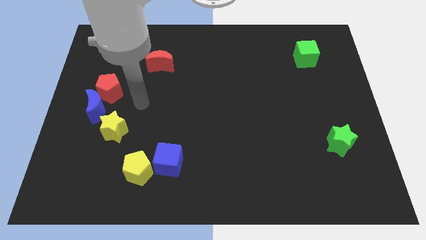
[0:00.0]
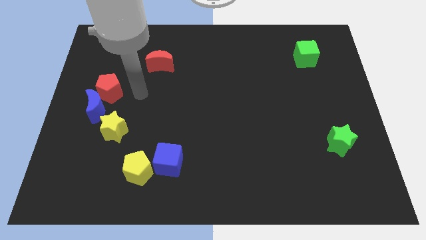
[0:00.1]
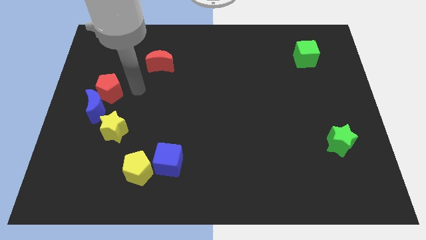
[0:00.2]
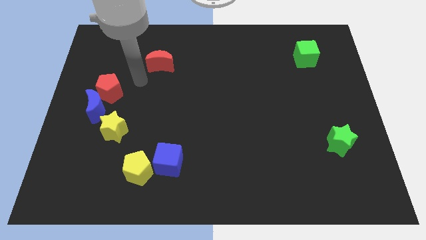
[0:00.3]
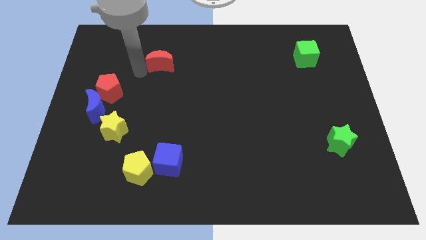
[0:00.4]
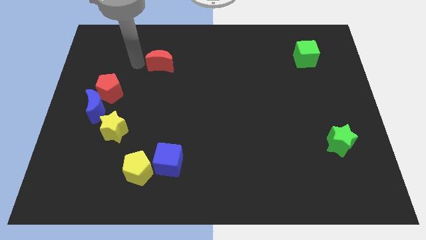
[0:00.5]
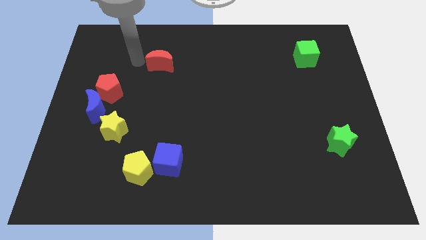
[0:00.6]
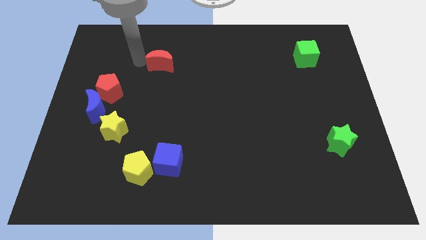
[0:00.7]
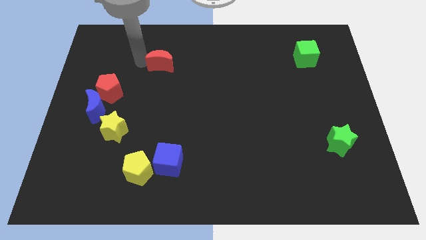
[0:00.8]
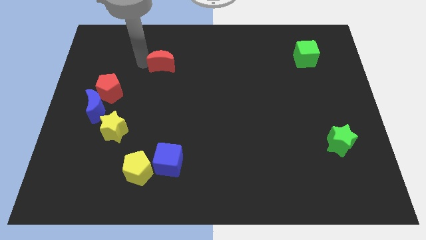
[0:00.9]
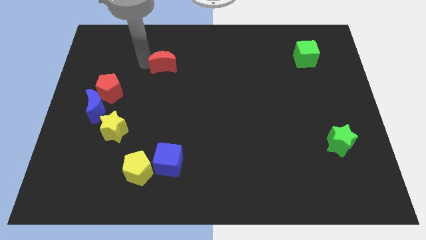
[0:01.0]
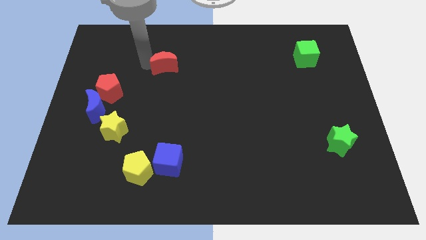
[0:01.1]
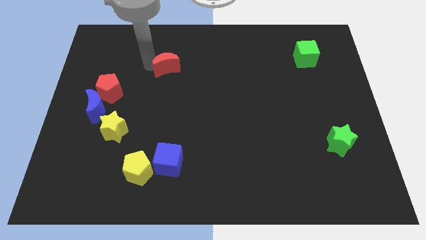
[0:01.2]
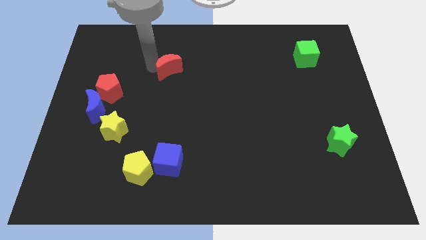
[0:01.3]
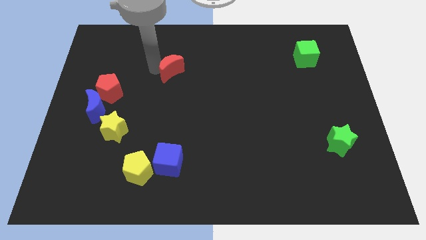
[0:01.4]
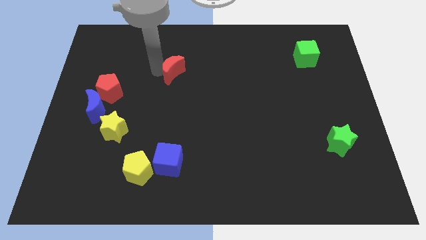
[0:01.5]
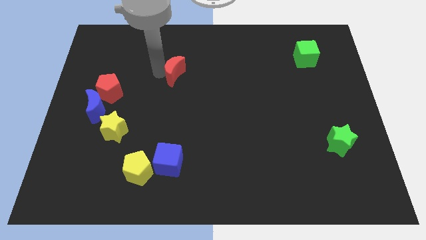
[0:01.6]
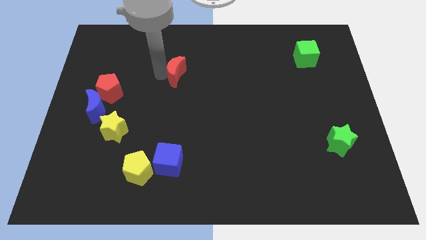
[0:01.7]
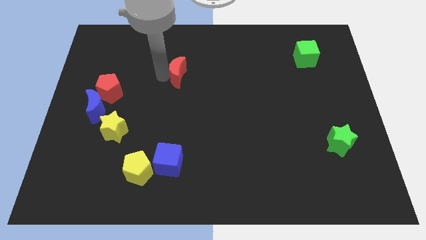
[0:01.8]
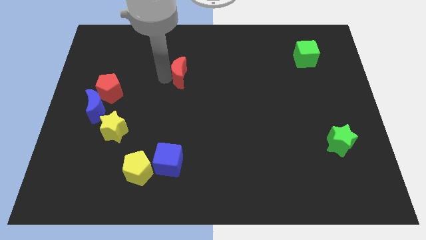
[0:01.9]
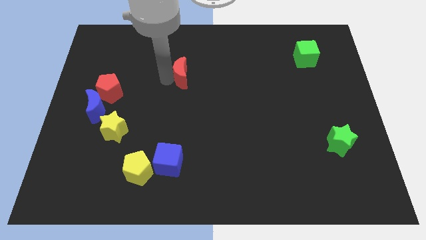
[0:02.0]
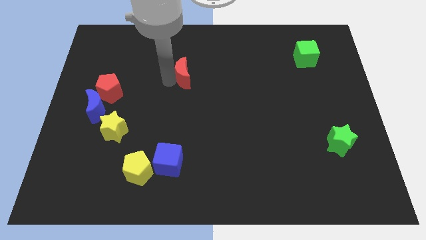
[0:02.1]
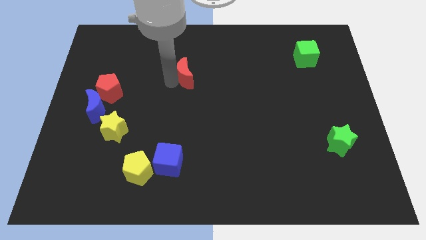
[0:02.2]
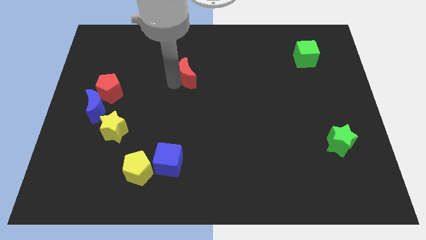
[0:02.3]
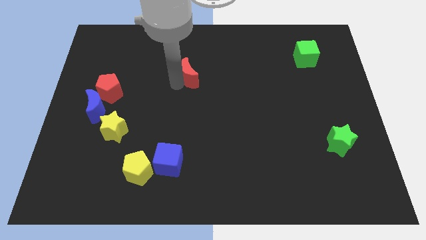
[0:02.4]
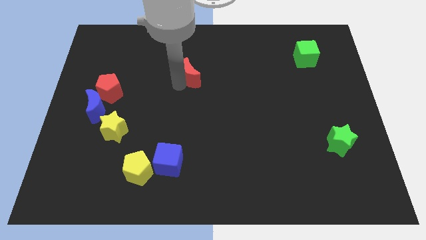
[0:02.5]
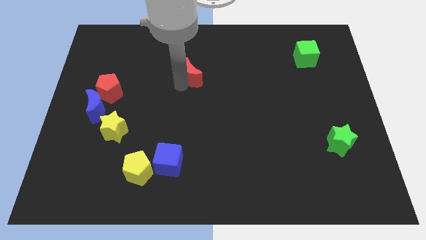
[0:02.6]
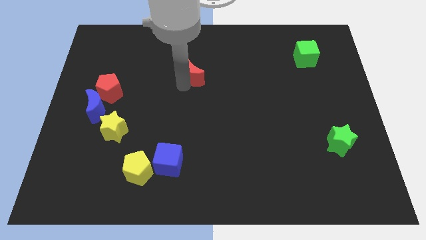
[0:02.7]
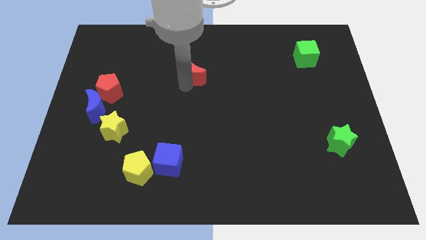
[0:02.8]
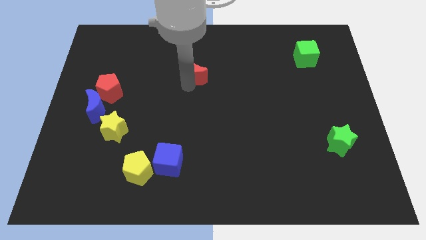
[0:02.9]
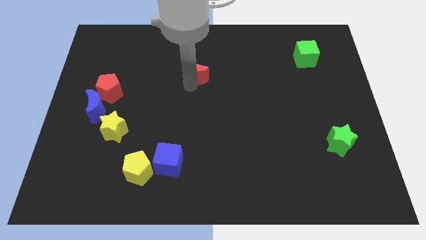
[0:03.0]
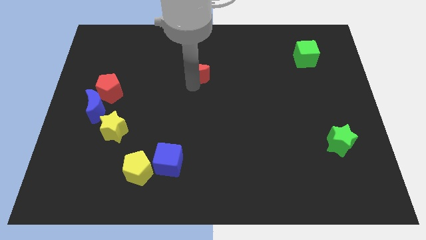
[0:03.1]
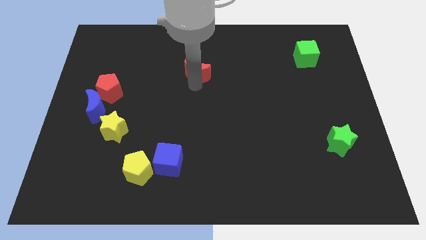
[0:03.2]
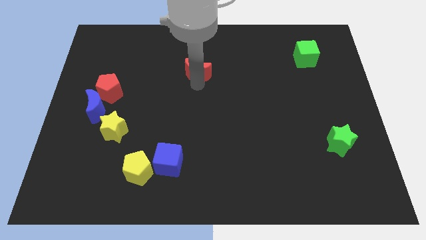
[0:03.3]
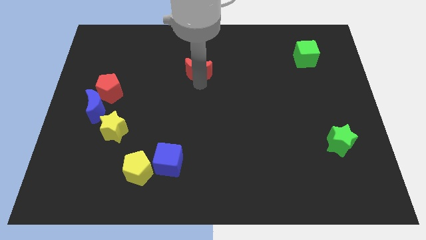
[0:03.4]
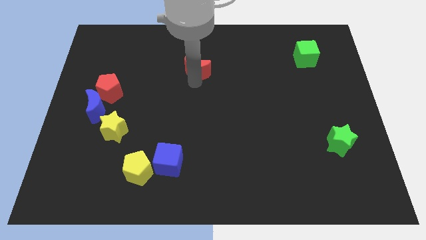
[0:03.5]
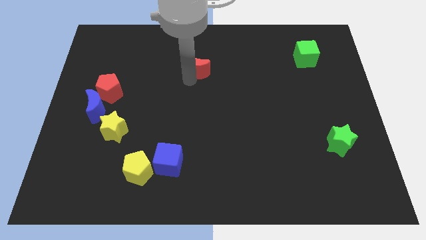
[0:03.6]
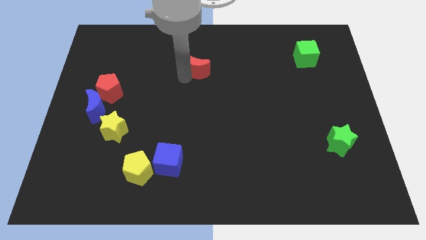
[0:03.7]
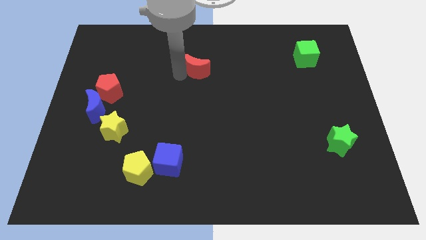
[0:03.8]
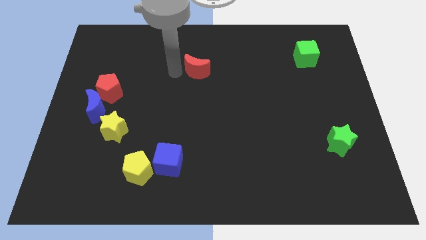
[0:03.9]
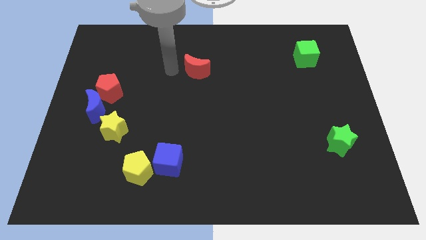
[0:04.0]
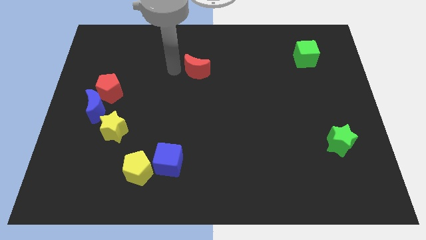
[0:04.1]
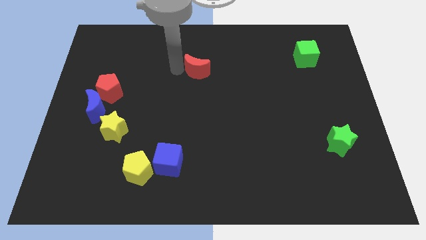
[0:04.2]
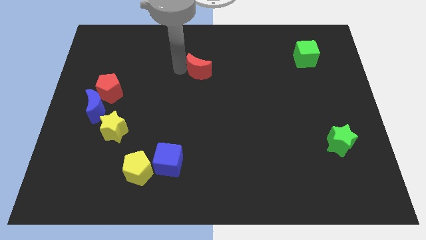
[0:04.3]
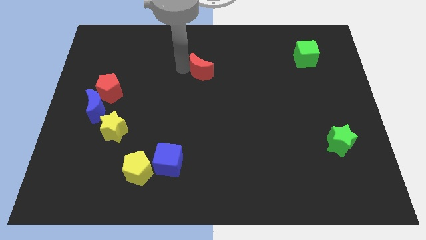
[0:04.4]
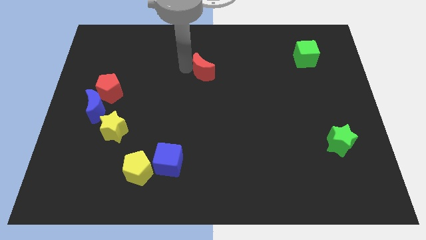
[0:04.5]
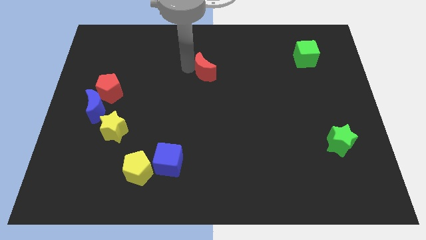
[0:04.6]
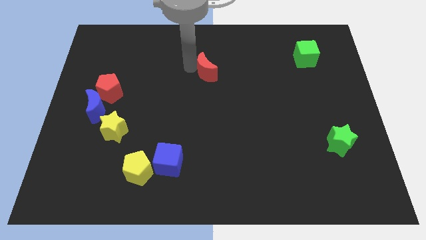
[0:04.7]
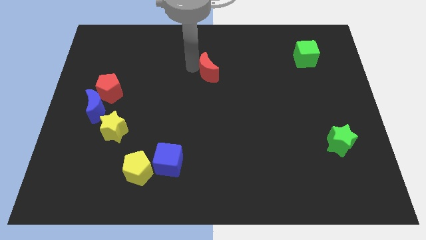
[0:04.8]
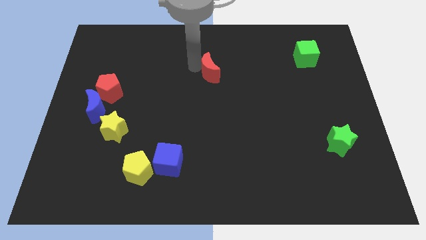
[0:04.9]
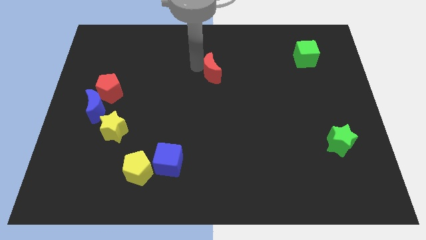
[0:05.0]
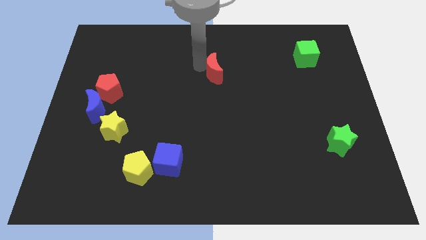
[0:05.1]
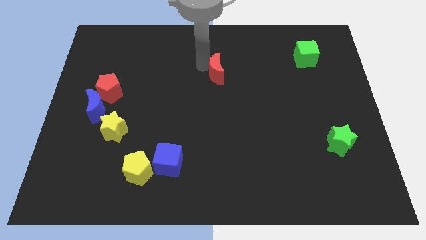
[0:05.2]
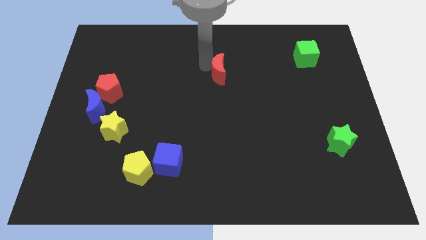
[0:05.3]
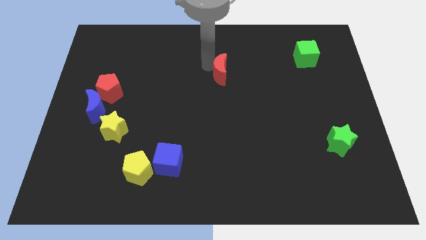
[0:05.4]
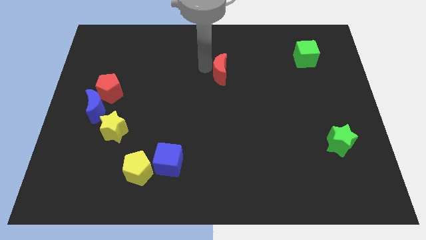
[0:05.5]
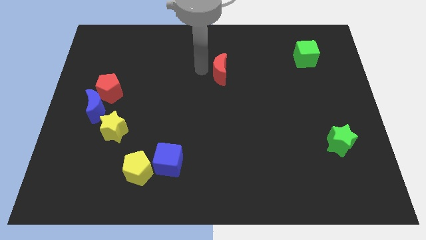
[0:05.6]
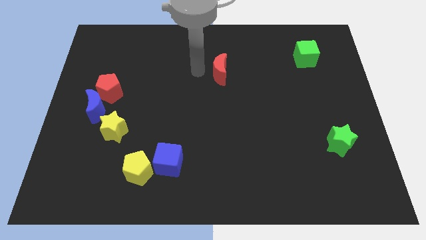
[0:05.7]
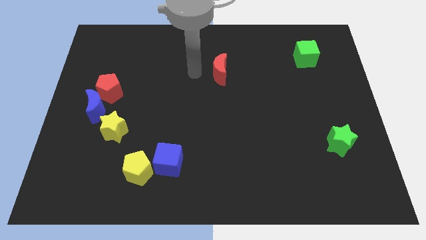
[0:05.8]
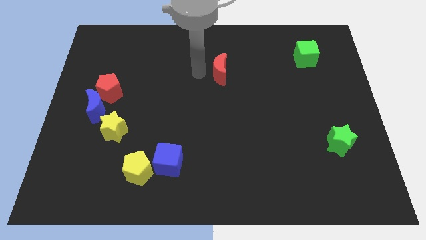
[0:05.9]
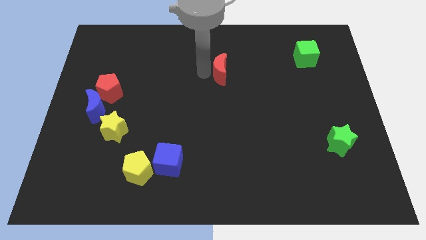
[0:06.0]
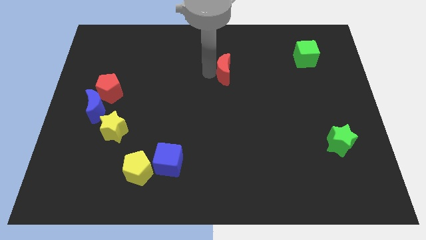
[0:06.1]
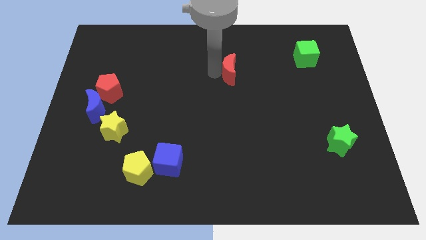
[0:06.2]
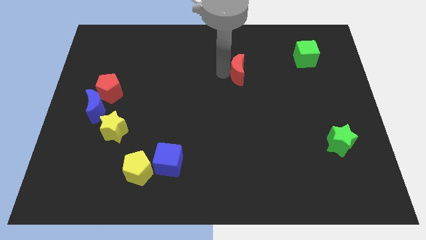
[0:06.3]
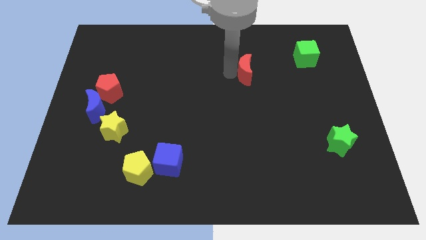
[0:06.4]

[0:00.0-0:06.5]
push the red moon to the right

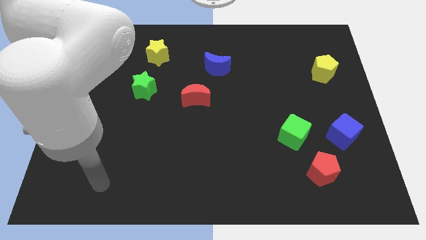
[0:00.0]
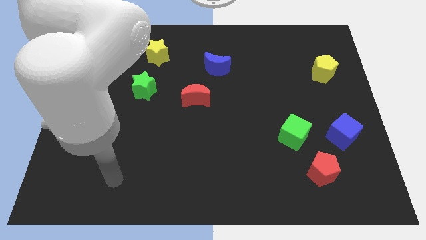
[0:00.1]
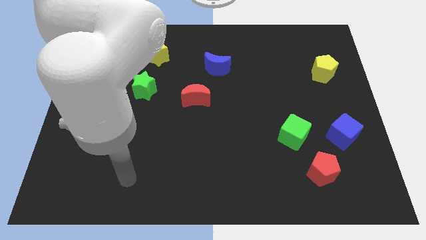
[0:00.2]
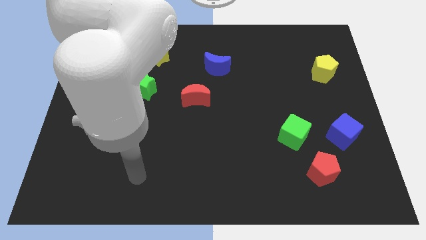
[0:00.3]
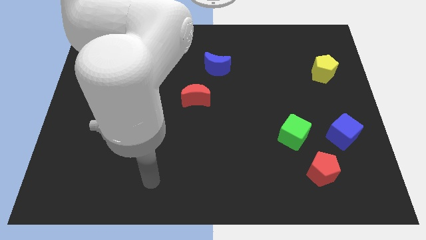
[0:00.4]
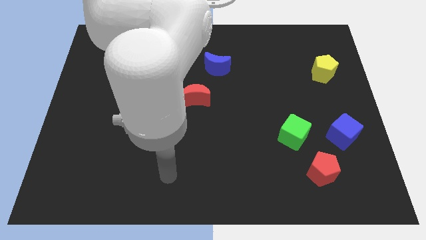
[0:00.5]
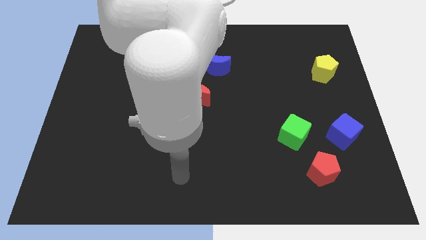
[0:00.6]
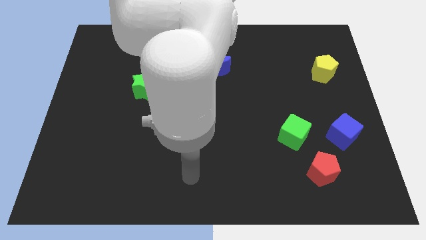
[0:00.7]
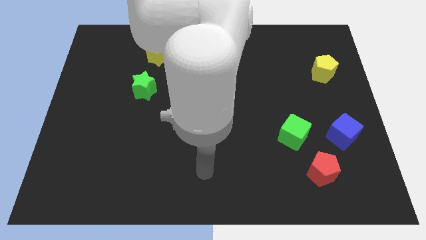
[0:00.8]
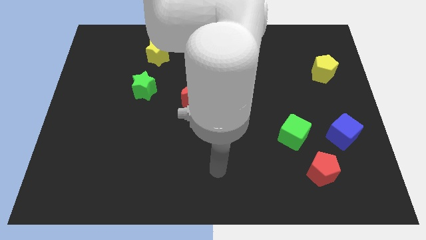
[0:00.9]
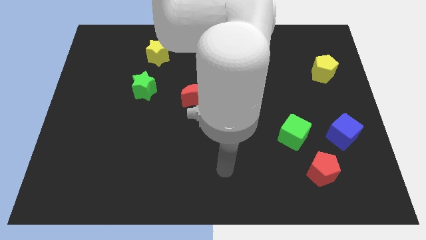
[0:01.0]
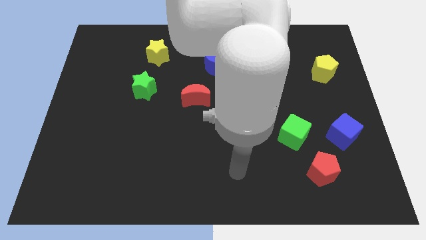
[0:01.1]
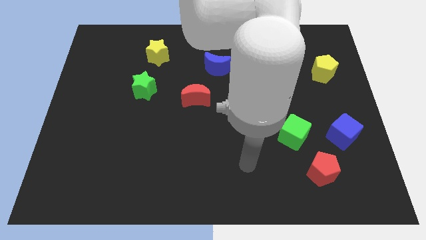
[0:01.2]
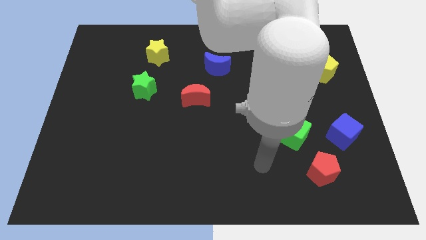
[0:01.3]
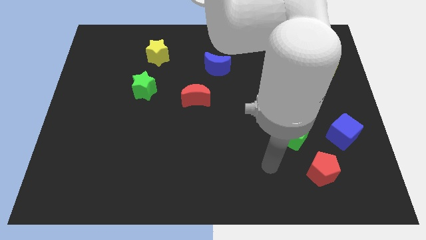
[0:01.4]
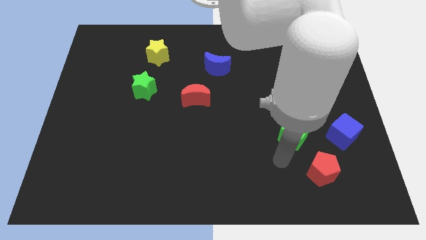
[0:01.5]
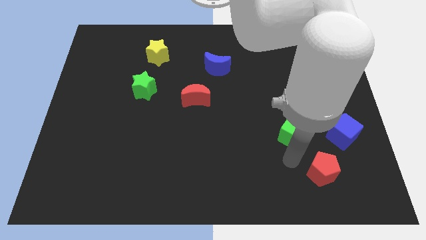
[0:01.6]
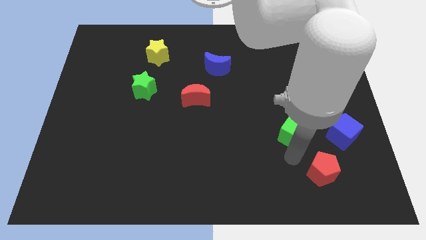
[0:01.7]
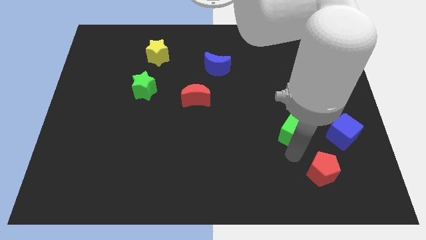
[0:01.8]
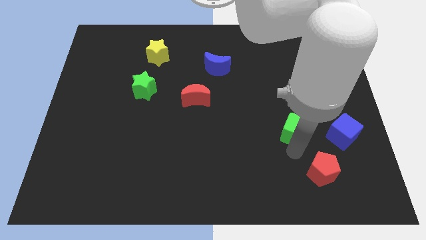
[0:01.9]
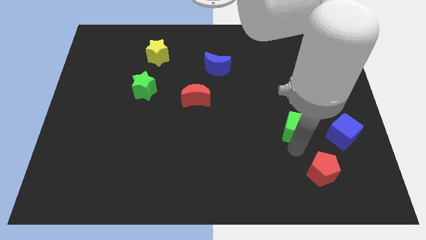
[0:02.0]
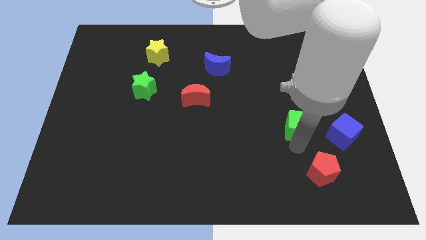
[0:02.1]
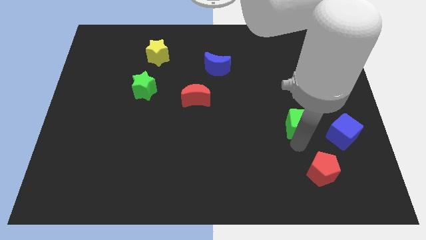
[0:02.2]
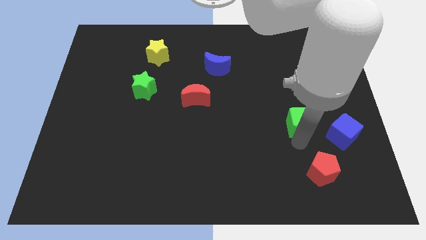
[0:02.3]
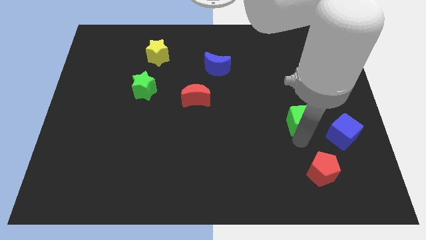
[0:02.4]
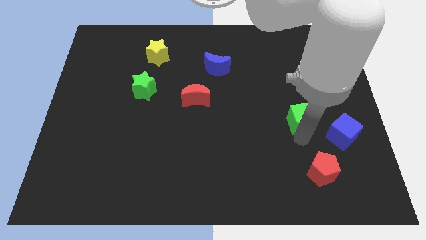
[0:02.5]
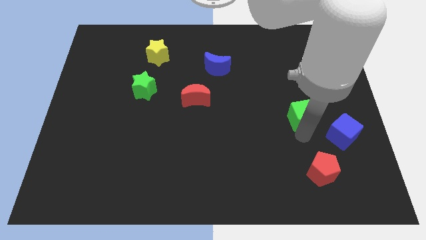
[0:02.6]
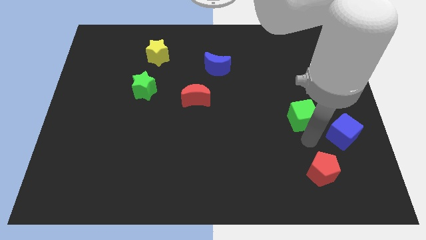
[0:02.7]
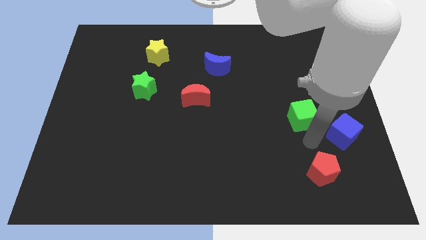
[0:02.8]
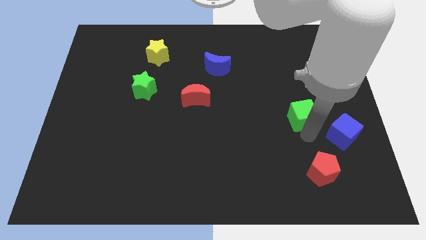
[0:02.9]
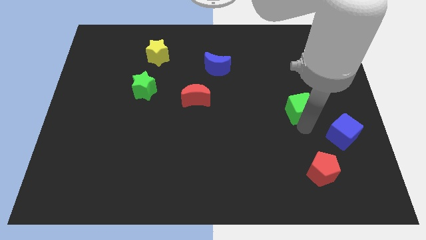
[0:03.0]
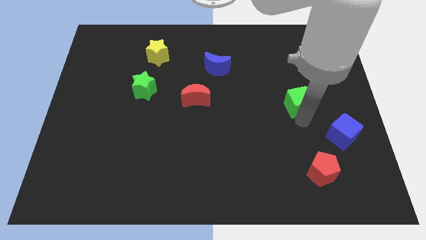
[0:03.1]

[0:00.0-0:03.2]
move the green cube a little bit upwards
